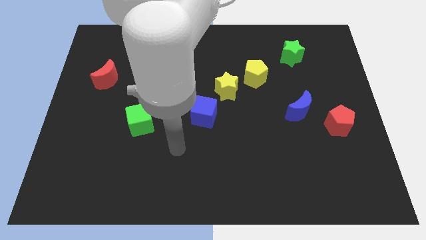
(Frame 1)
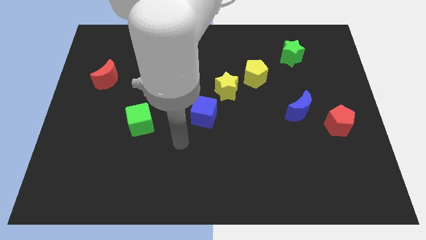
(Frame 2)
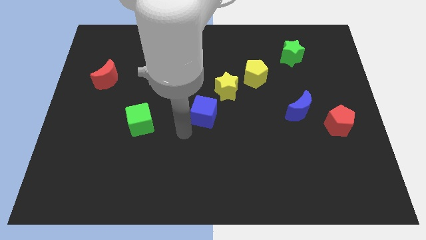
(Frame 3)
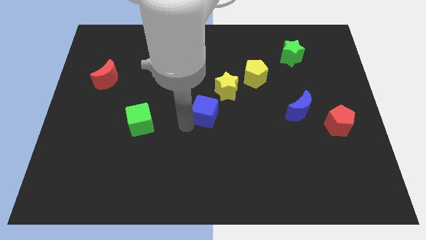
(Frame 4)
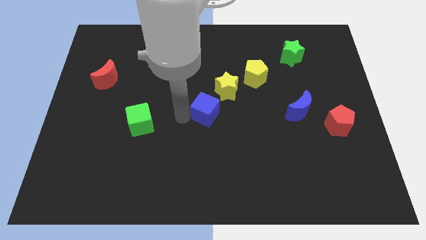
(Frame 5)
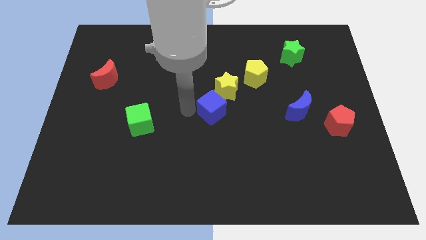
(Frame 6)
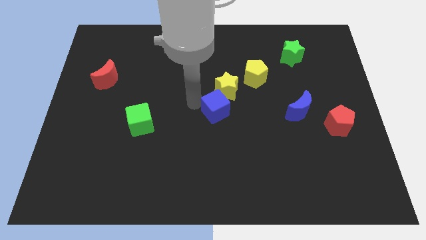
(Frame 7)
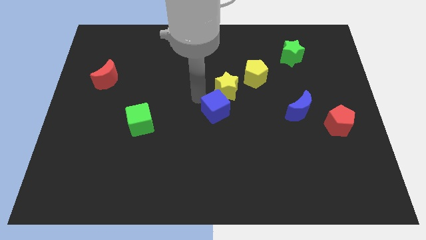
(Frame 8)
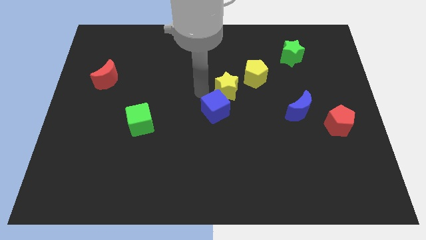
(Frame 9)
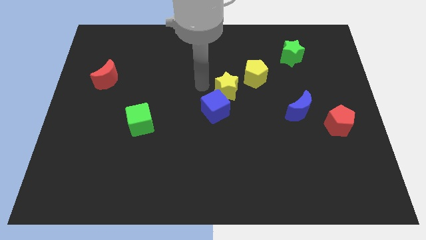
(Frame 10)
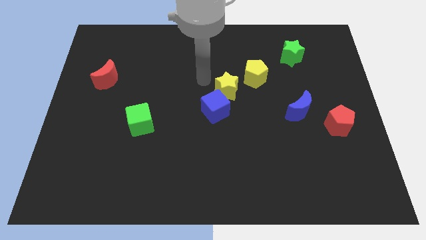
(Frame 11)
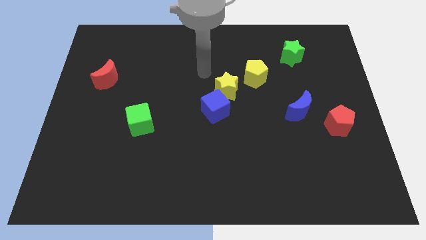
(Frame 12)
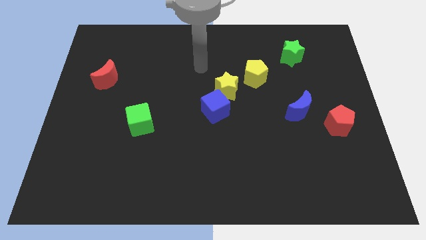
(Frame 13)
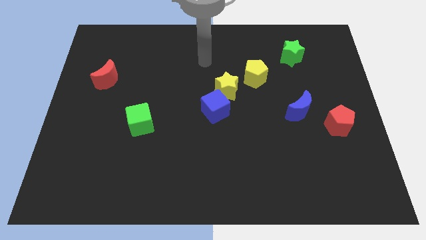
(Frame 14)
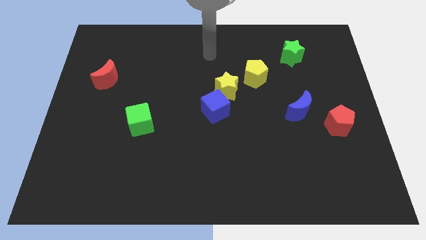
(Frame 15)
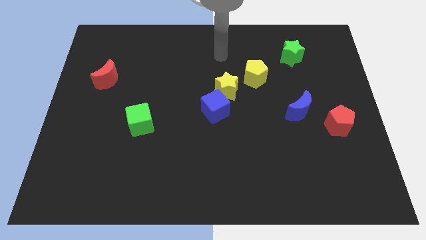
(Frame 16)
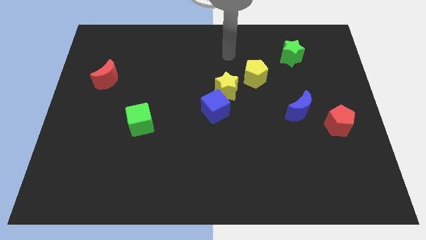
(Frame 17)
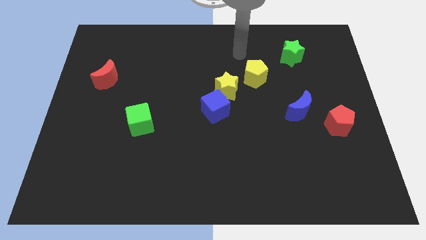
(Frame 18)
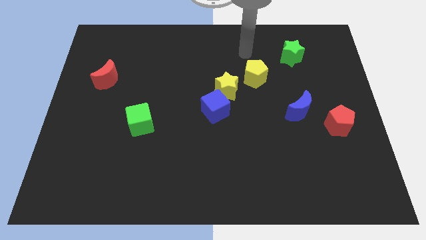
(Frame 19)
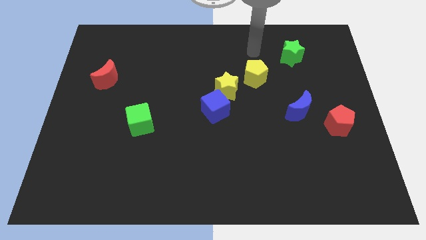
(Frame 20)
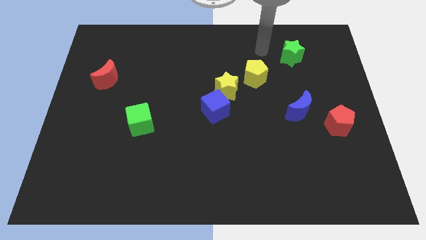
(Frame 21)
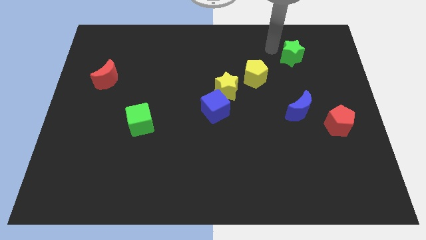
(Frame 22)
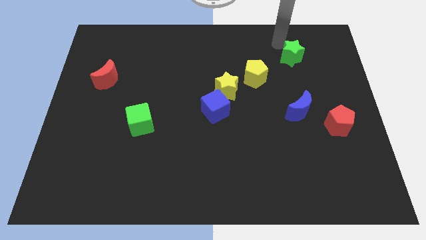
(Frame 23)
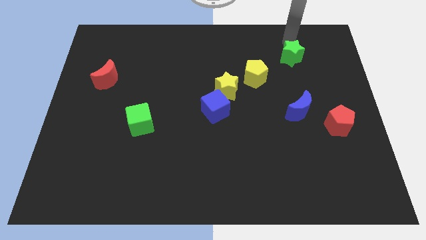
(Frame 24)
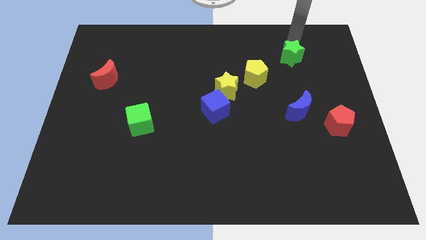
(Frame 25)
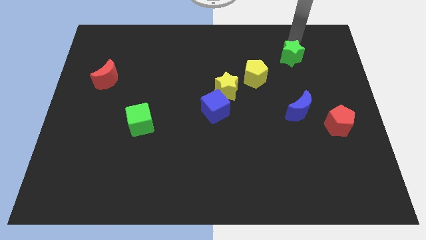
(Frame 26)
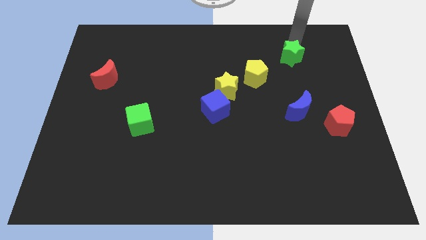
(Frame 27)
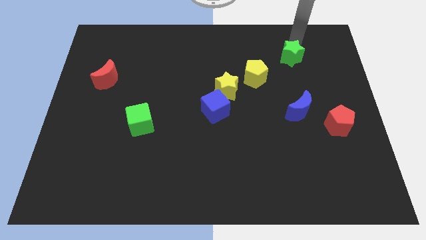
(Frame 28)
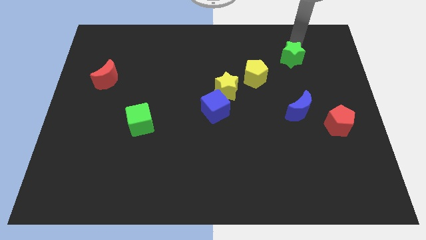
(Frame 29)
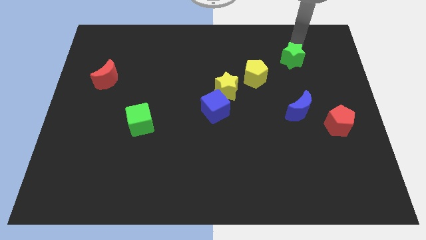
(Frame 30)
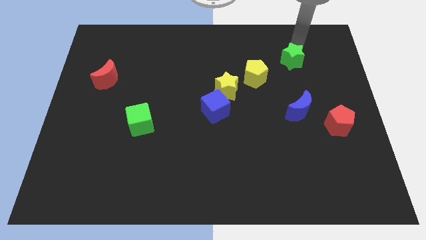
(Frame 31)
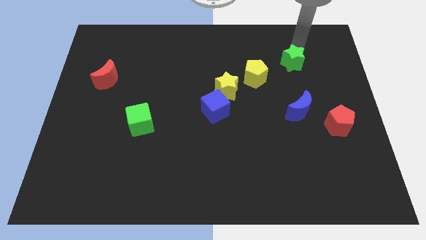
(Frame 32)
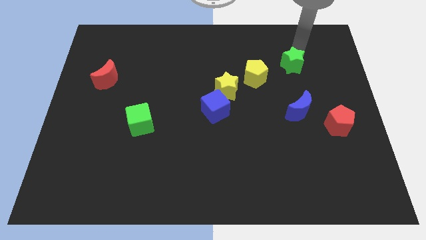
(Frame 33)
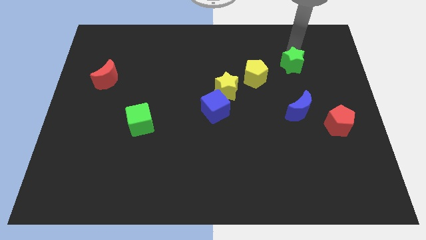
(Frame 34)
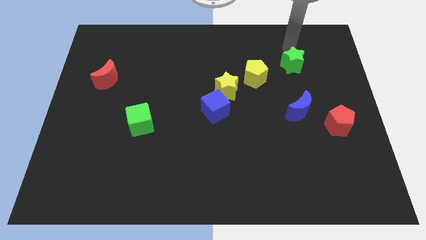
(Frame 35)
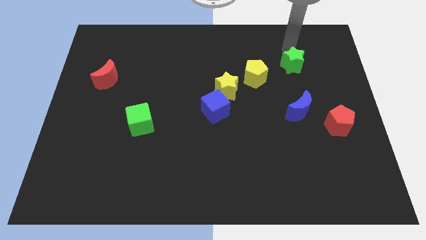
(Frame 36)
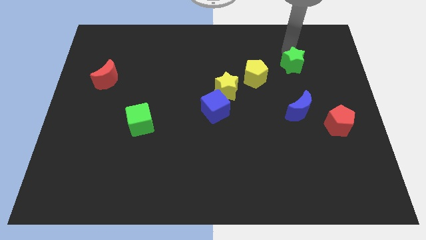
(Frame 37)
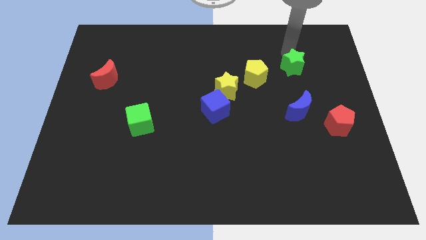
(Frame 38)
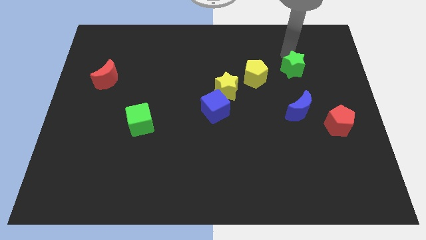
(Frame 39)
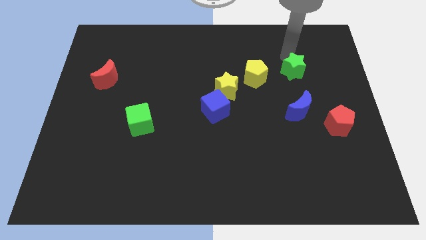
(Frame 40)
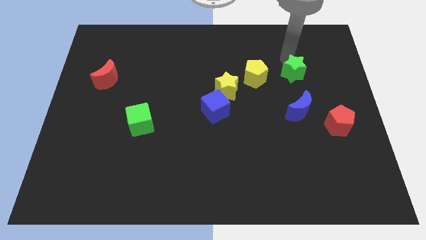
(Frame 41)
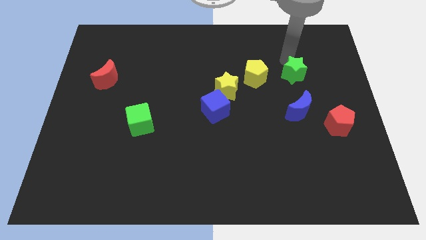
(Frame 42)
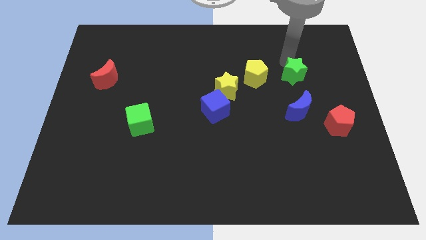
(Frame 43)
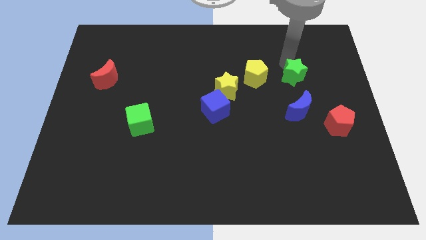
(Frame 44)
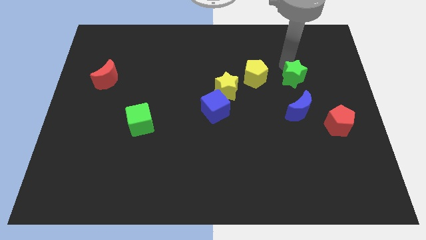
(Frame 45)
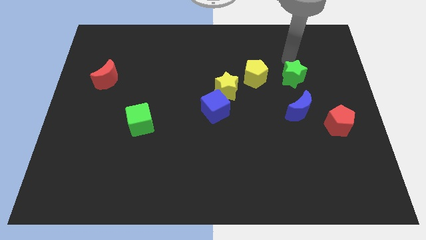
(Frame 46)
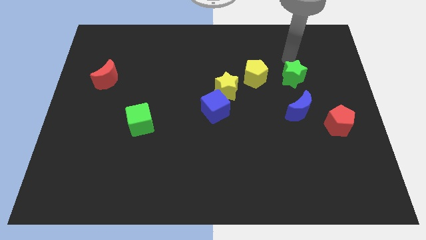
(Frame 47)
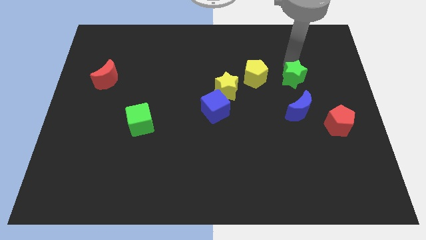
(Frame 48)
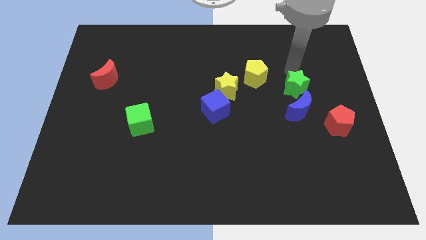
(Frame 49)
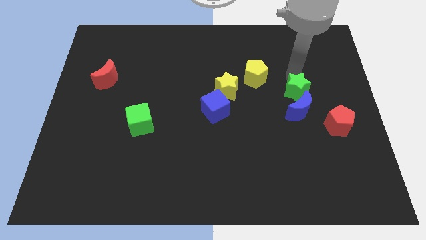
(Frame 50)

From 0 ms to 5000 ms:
put the green star close to the blue moon

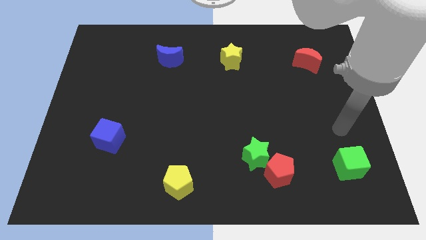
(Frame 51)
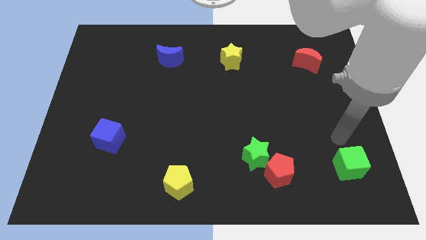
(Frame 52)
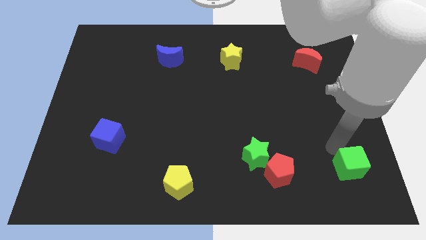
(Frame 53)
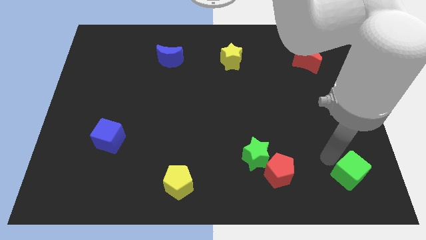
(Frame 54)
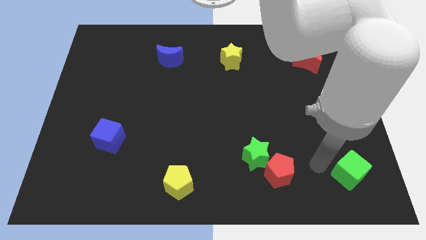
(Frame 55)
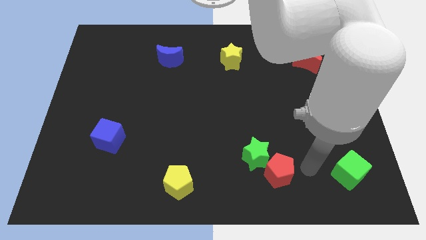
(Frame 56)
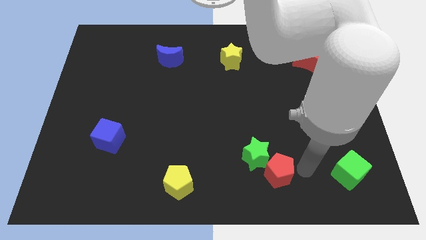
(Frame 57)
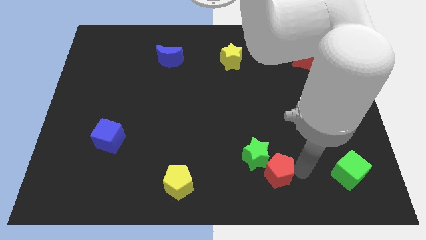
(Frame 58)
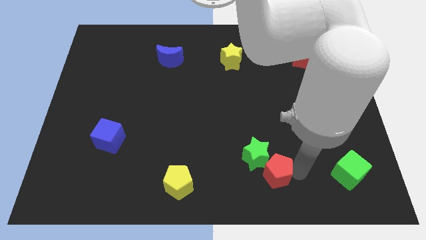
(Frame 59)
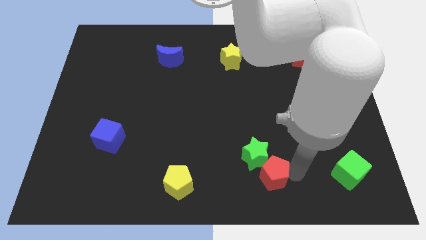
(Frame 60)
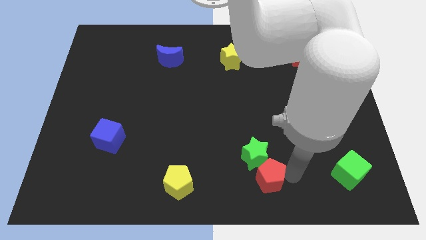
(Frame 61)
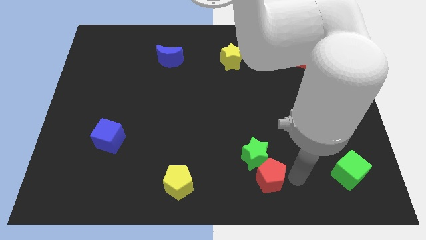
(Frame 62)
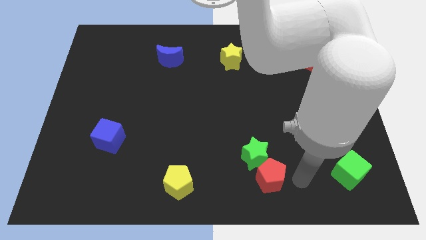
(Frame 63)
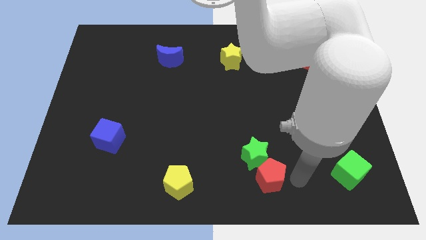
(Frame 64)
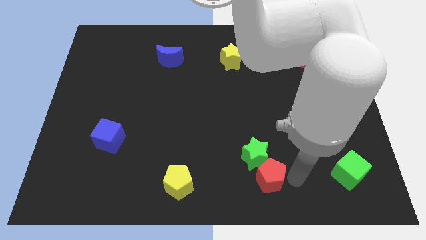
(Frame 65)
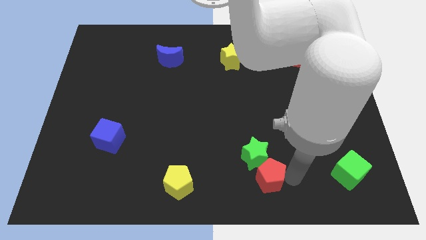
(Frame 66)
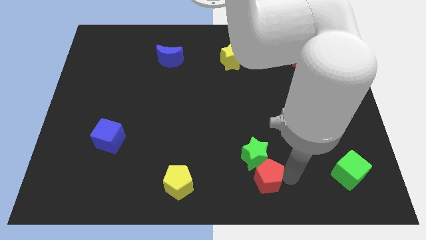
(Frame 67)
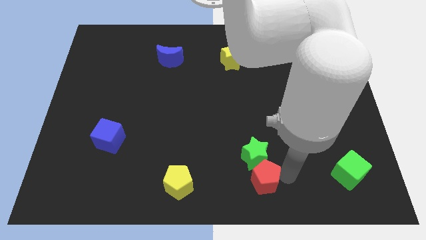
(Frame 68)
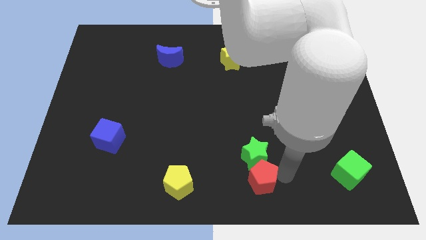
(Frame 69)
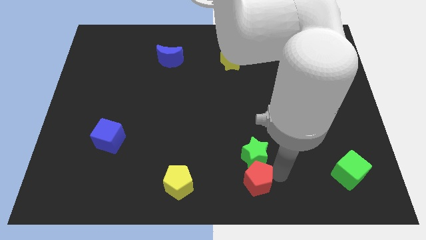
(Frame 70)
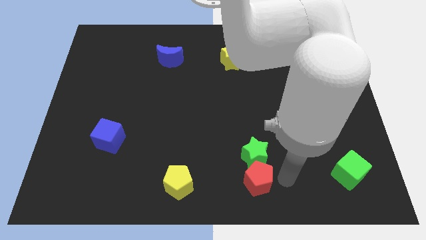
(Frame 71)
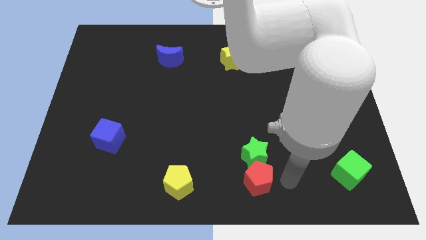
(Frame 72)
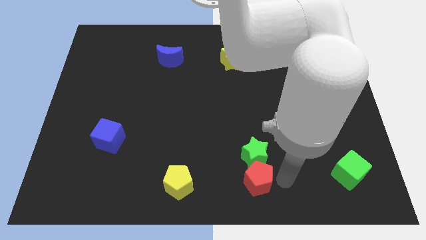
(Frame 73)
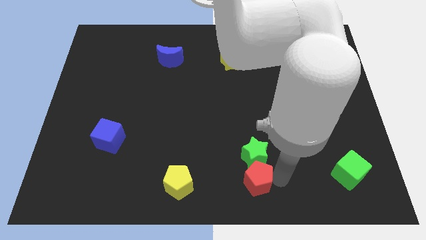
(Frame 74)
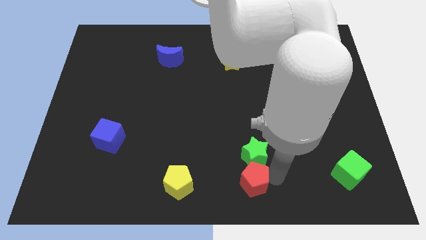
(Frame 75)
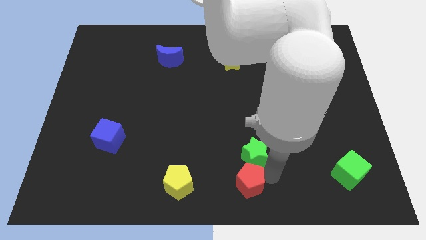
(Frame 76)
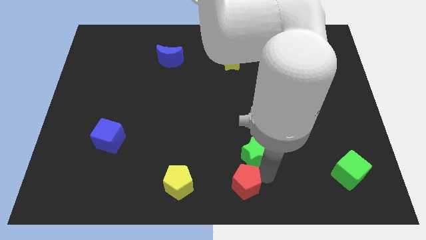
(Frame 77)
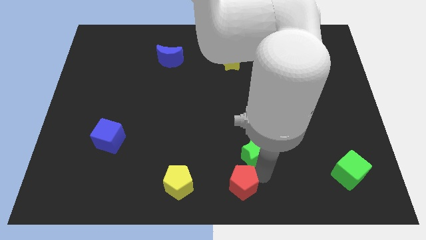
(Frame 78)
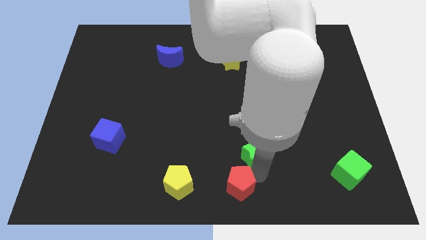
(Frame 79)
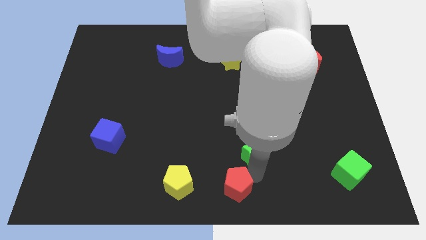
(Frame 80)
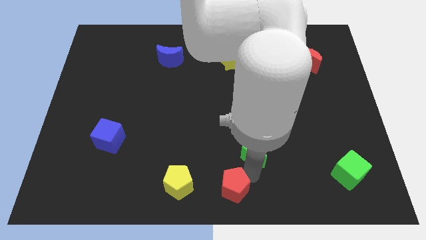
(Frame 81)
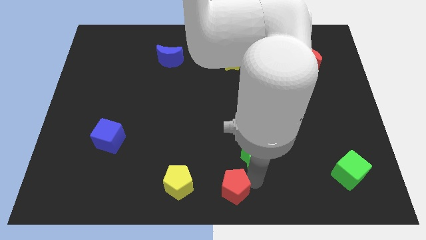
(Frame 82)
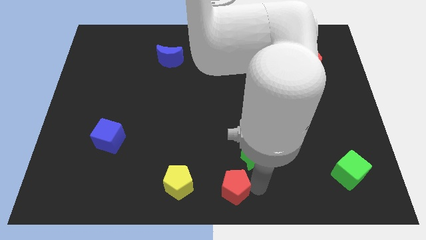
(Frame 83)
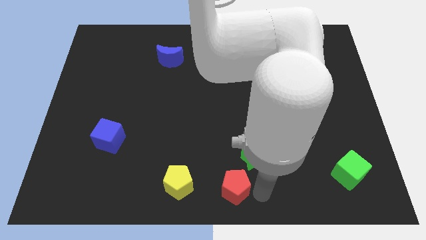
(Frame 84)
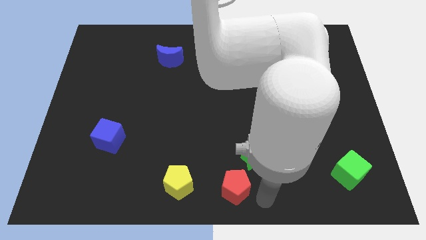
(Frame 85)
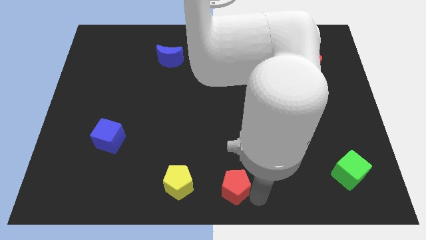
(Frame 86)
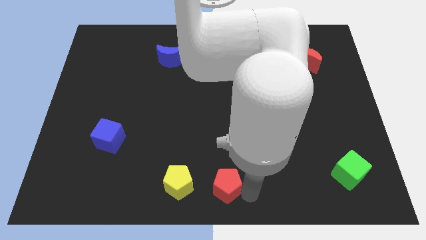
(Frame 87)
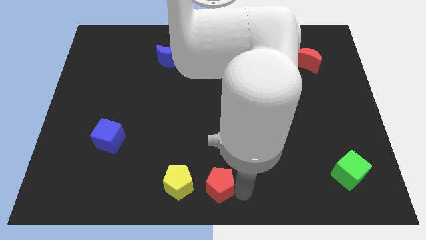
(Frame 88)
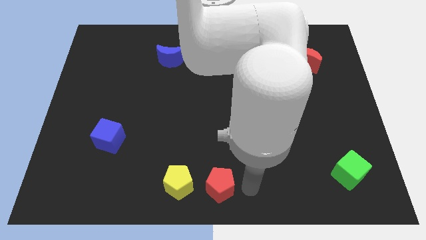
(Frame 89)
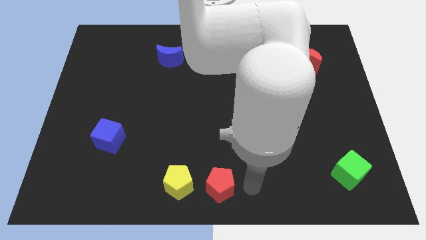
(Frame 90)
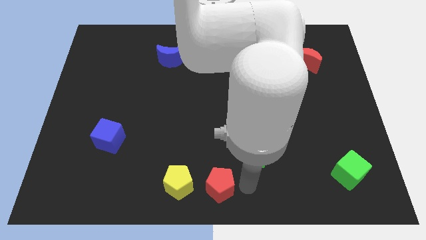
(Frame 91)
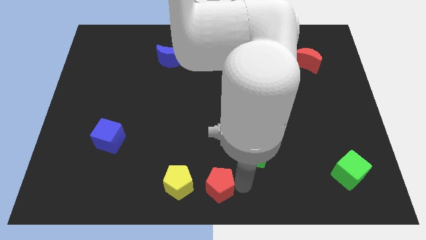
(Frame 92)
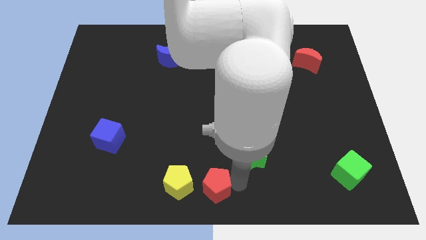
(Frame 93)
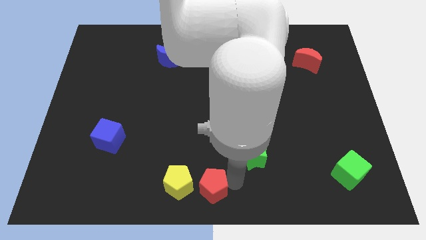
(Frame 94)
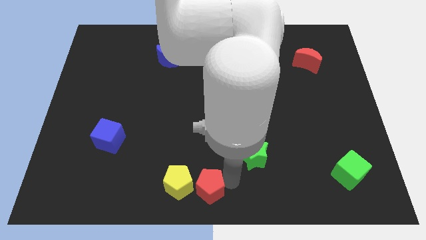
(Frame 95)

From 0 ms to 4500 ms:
move the red pentagon close to the yellow pentagon
